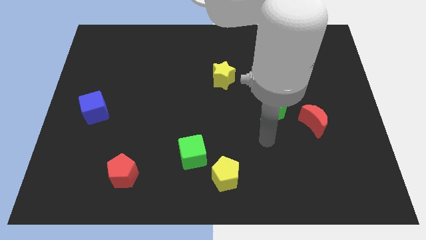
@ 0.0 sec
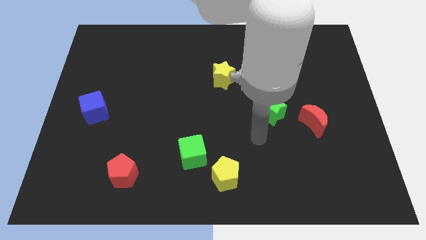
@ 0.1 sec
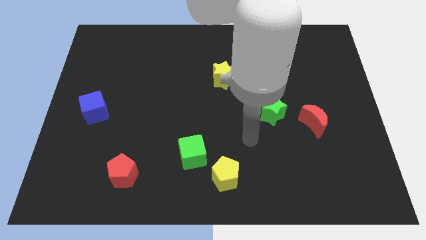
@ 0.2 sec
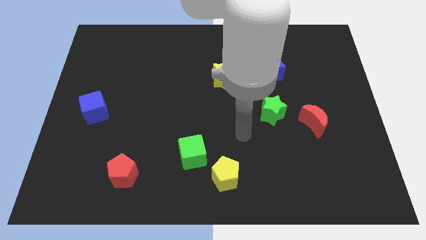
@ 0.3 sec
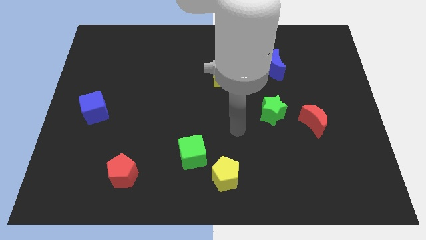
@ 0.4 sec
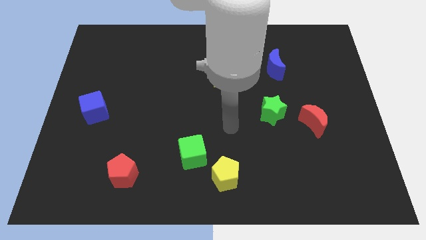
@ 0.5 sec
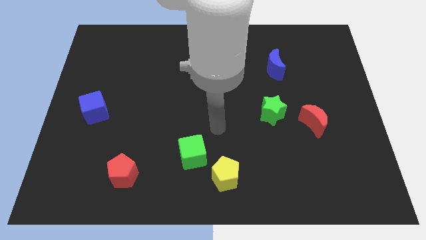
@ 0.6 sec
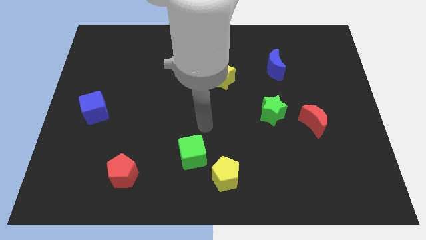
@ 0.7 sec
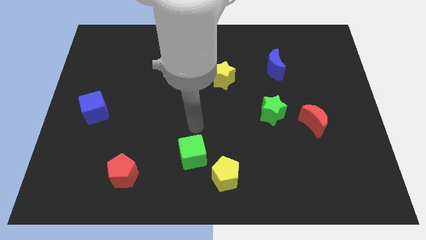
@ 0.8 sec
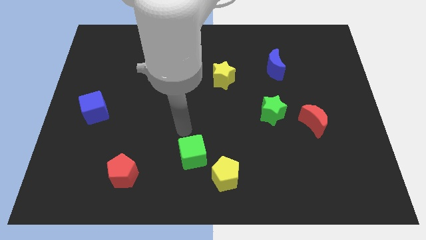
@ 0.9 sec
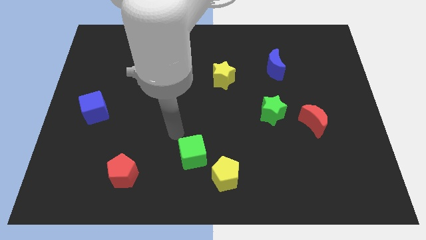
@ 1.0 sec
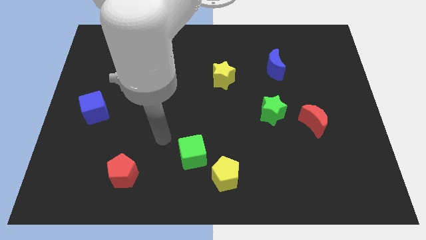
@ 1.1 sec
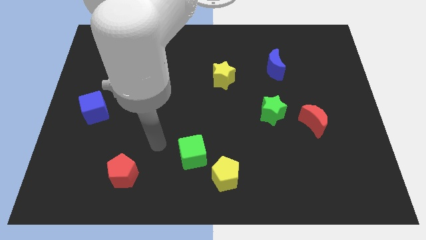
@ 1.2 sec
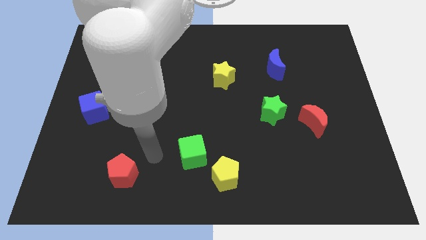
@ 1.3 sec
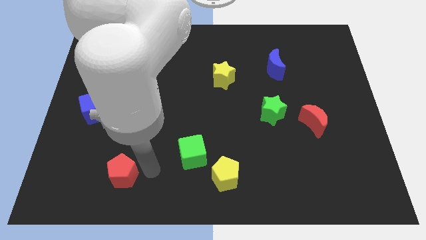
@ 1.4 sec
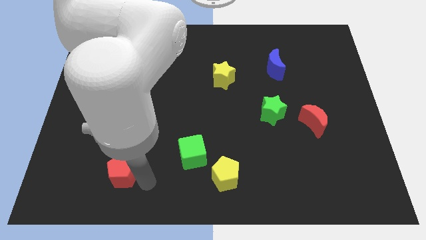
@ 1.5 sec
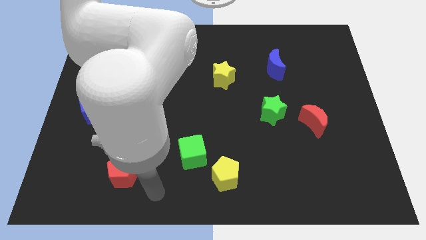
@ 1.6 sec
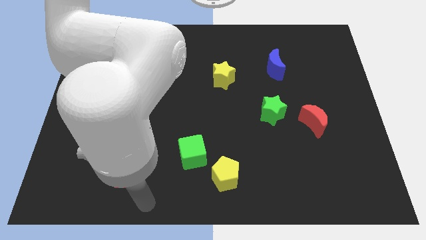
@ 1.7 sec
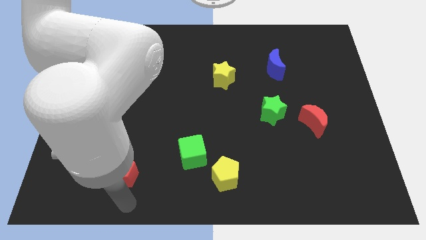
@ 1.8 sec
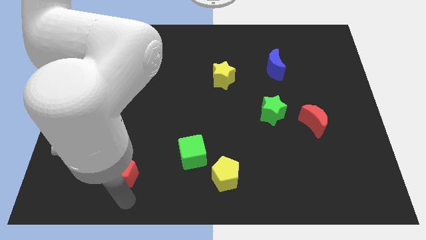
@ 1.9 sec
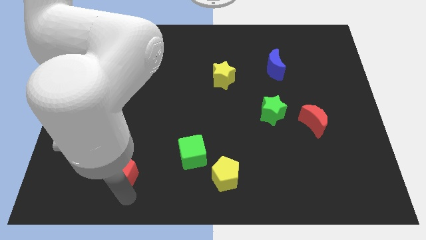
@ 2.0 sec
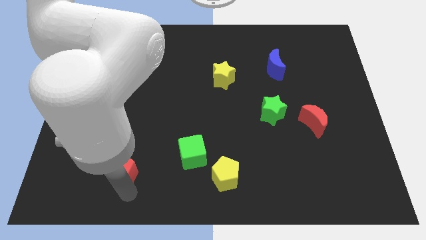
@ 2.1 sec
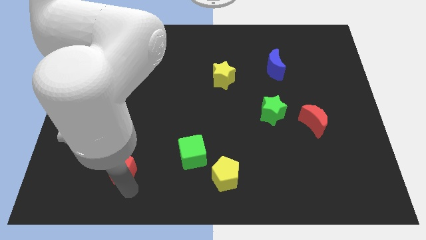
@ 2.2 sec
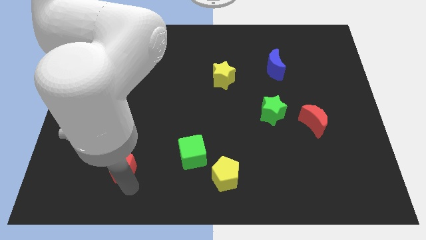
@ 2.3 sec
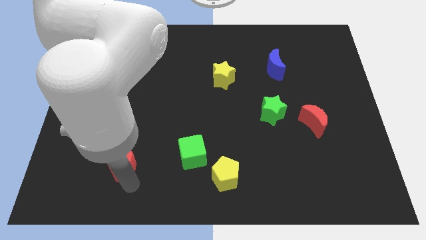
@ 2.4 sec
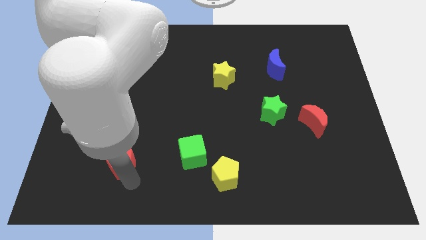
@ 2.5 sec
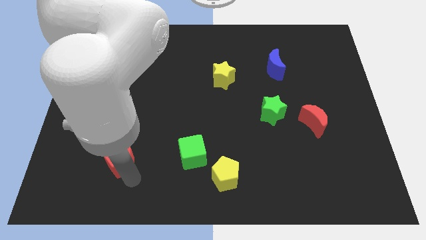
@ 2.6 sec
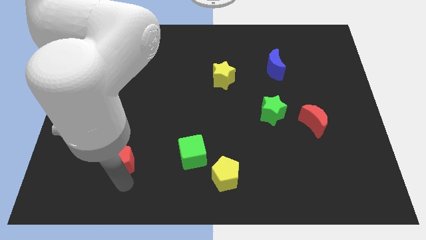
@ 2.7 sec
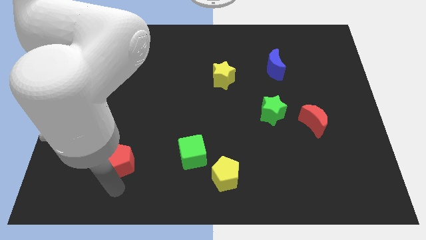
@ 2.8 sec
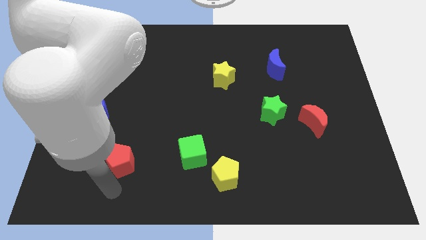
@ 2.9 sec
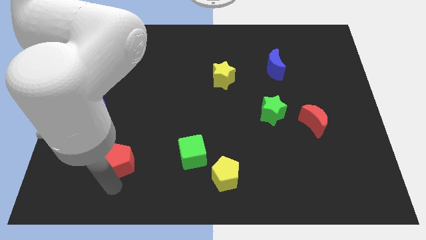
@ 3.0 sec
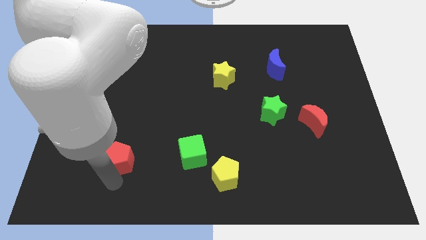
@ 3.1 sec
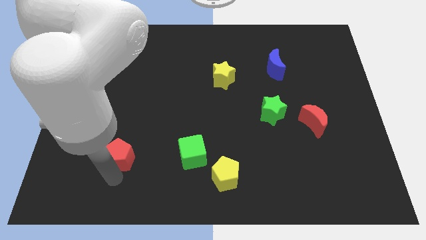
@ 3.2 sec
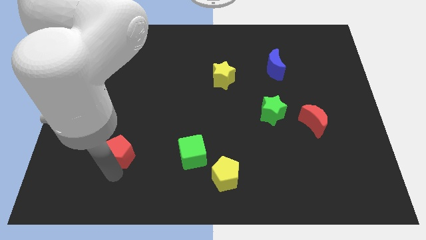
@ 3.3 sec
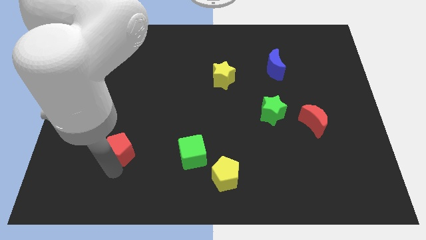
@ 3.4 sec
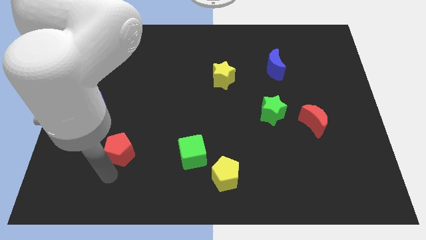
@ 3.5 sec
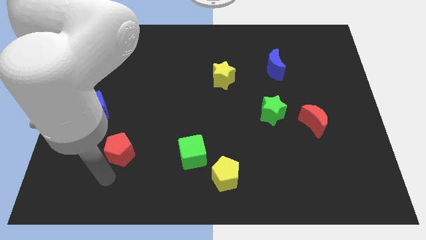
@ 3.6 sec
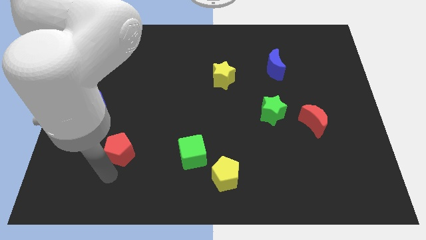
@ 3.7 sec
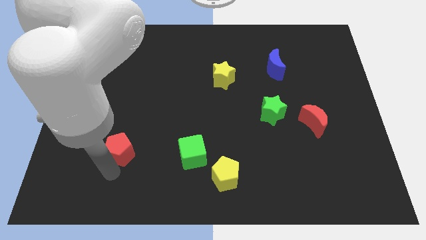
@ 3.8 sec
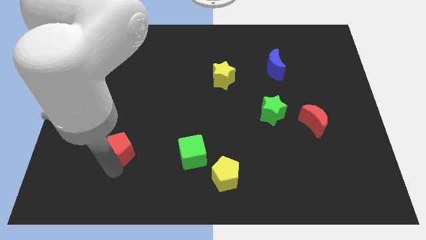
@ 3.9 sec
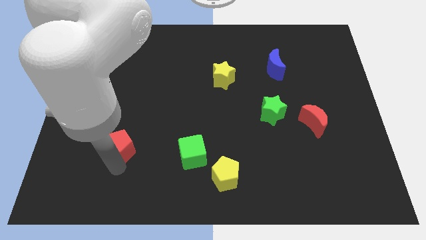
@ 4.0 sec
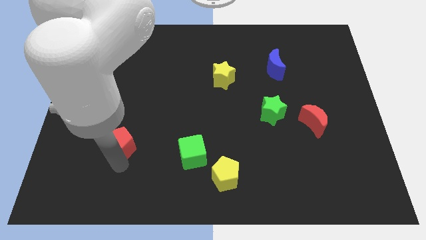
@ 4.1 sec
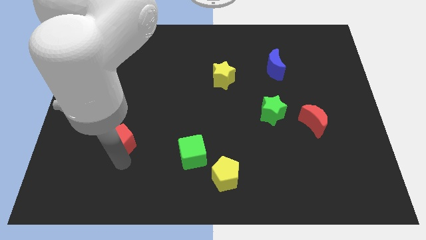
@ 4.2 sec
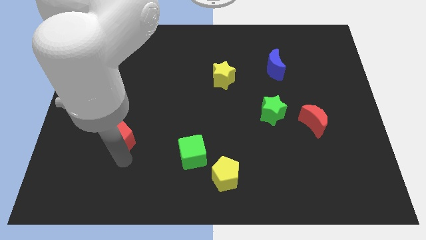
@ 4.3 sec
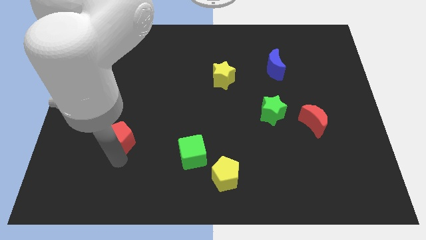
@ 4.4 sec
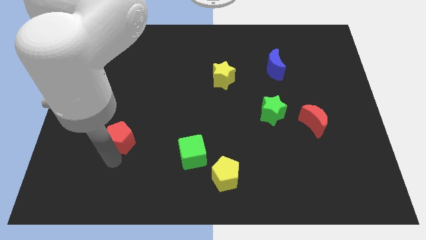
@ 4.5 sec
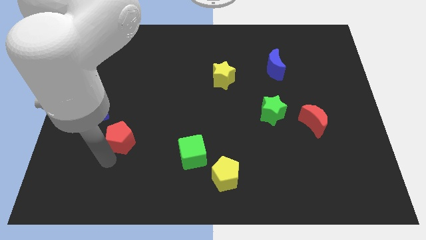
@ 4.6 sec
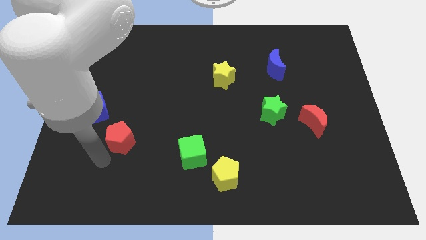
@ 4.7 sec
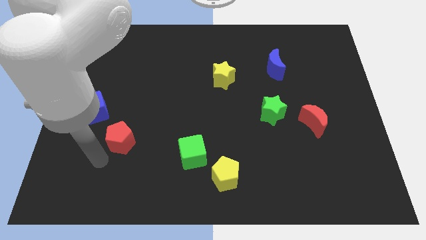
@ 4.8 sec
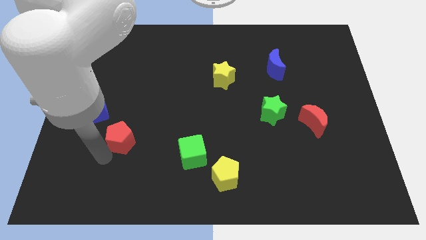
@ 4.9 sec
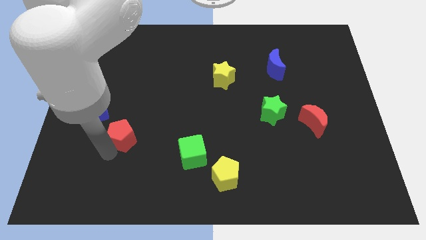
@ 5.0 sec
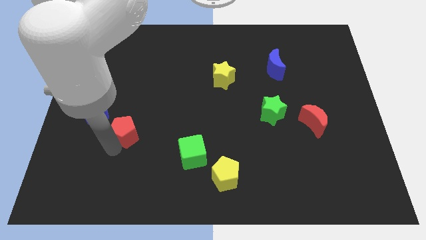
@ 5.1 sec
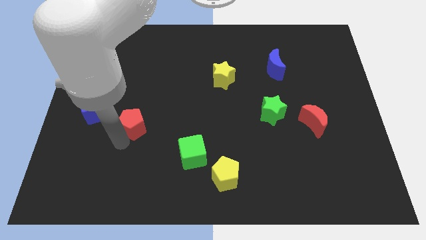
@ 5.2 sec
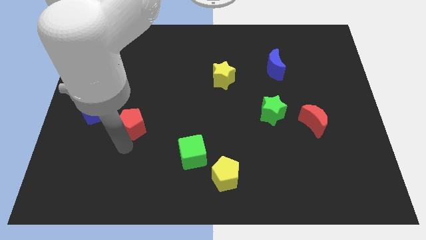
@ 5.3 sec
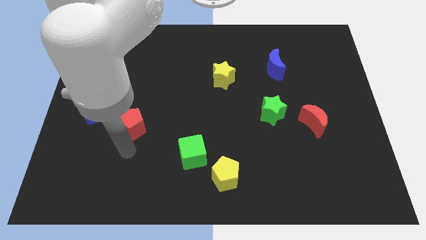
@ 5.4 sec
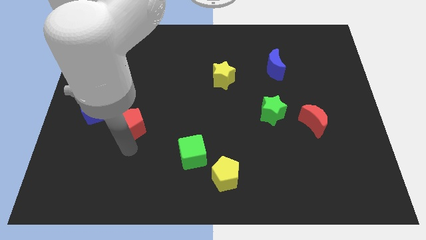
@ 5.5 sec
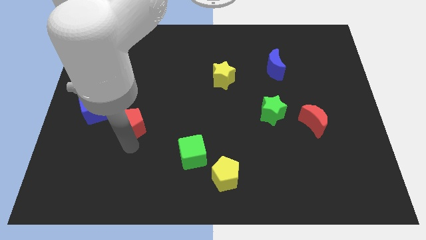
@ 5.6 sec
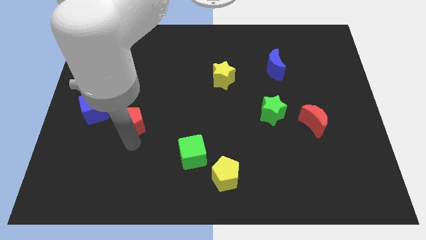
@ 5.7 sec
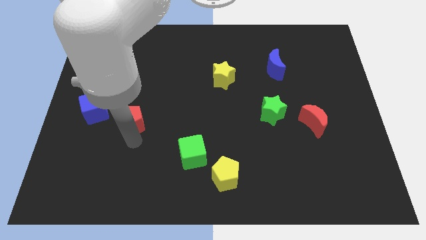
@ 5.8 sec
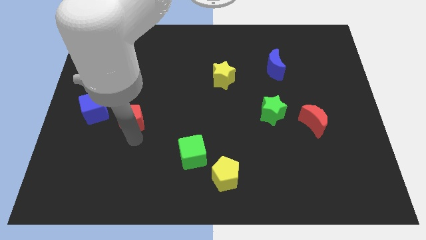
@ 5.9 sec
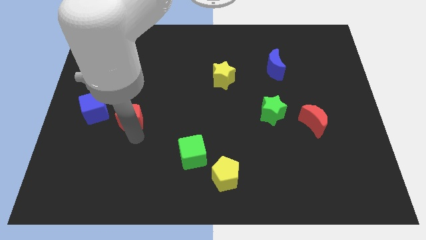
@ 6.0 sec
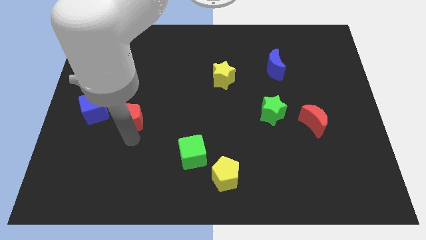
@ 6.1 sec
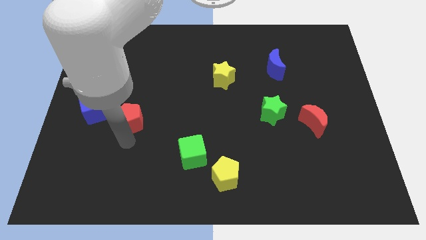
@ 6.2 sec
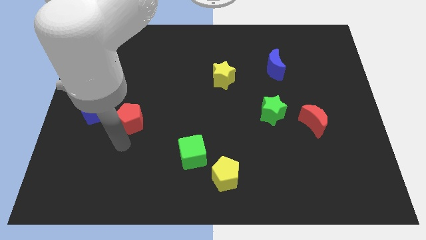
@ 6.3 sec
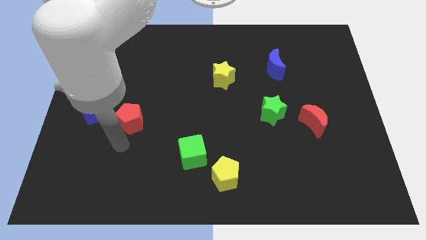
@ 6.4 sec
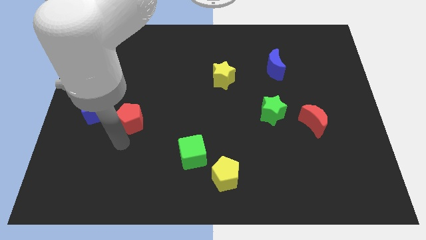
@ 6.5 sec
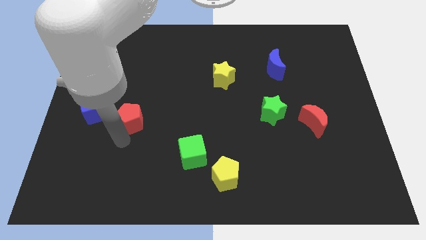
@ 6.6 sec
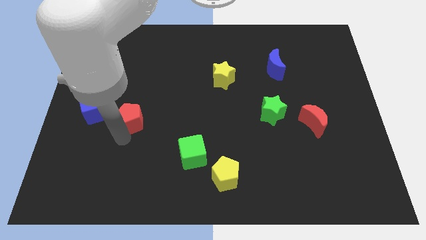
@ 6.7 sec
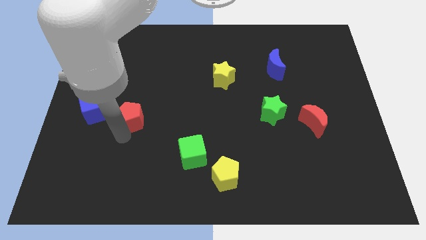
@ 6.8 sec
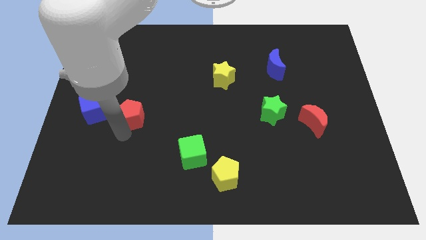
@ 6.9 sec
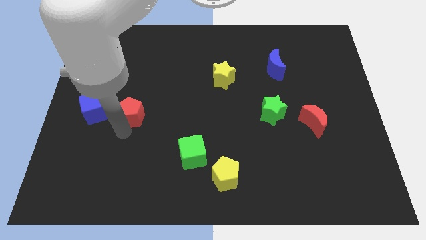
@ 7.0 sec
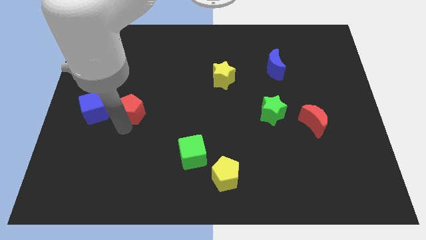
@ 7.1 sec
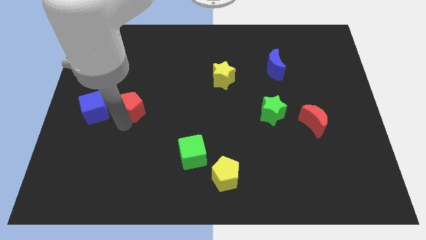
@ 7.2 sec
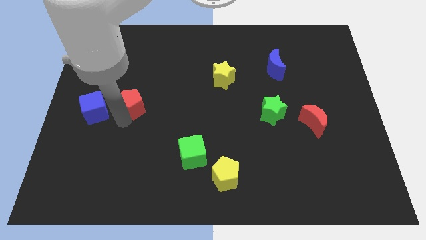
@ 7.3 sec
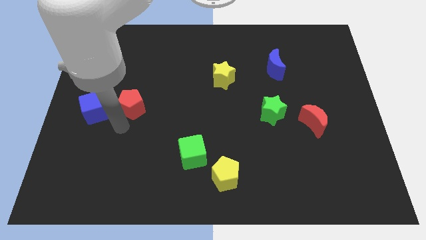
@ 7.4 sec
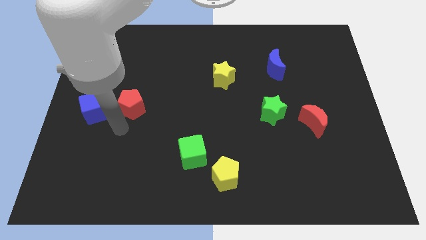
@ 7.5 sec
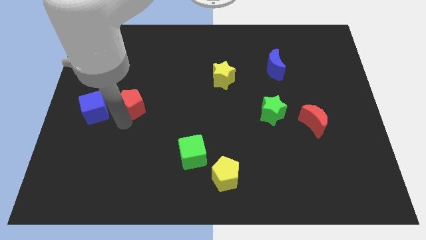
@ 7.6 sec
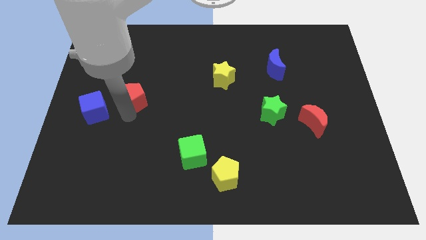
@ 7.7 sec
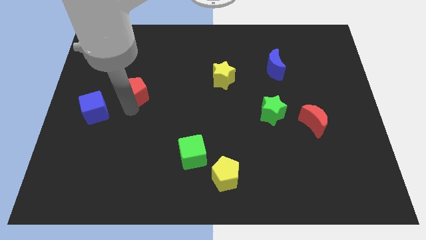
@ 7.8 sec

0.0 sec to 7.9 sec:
slide the red pentagon upwards

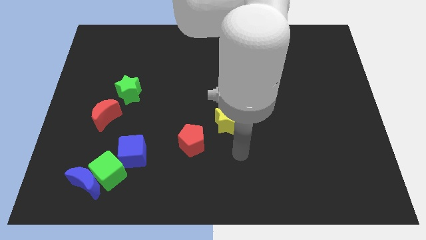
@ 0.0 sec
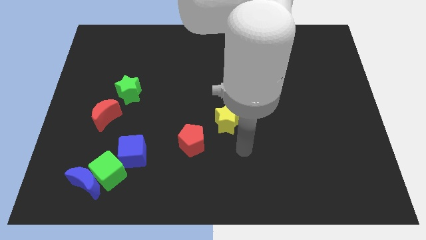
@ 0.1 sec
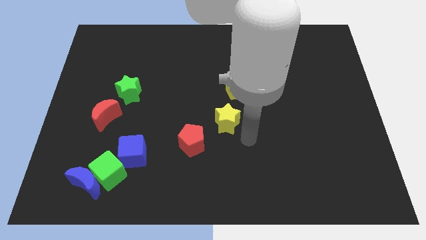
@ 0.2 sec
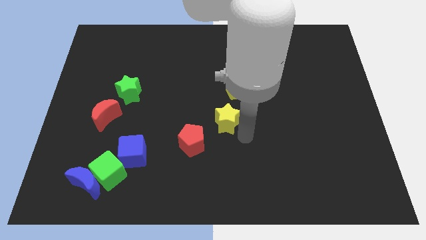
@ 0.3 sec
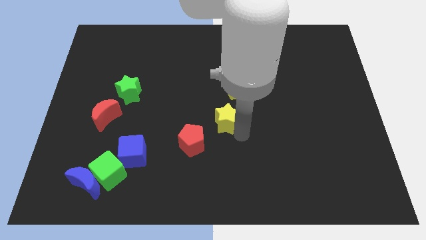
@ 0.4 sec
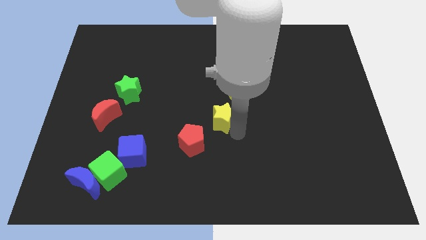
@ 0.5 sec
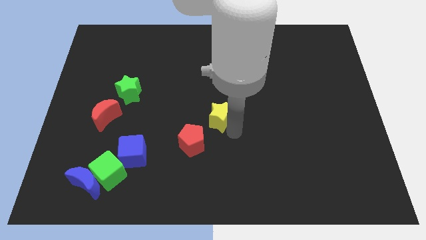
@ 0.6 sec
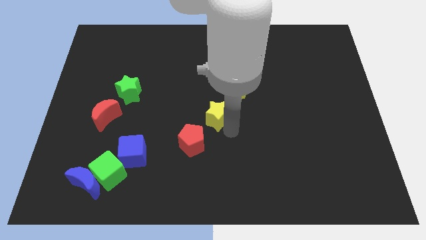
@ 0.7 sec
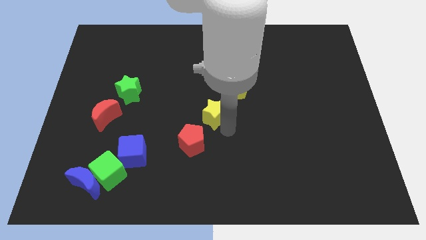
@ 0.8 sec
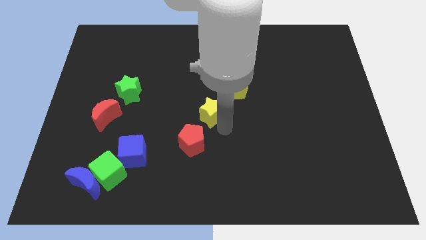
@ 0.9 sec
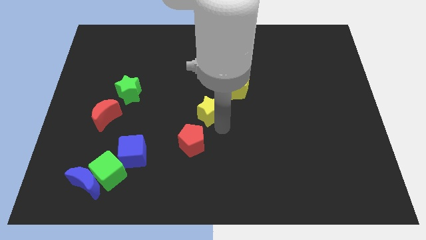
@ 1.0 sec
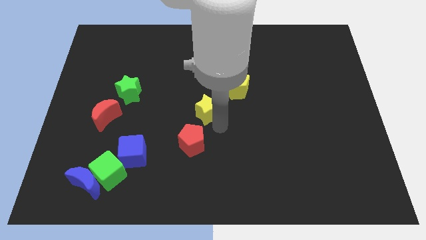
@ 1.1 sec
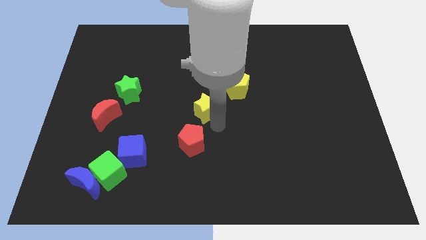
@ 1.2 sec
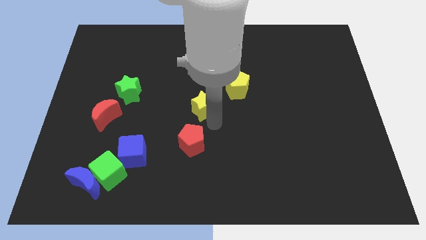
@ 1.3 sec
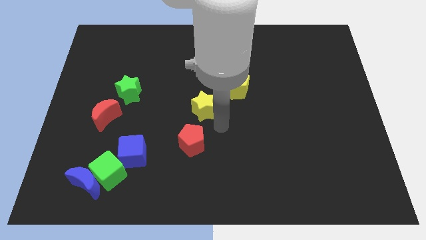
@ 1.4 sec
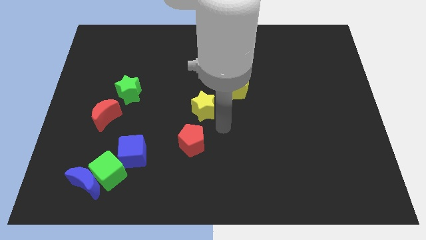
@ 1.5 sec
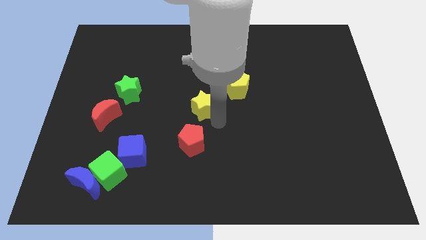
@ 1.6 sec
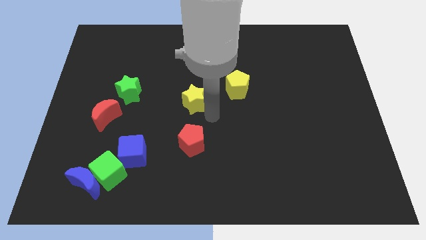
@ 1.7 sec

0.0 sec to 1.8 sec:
move the yellow star up and to the left slightly
